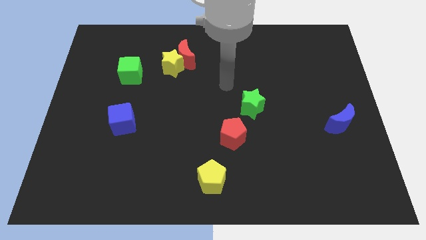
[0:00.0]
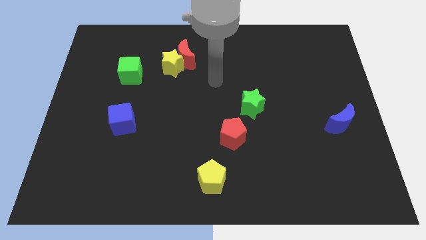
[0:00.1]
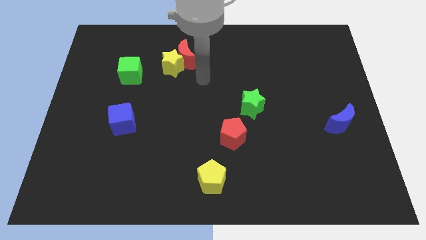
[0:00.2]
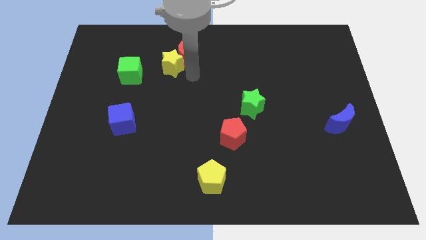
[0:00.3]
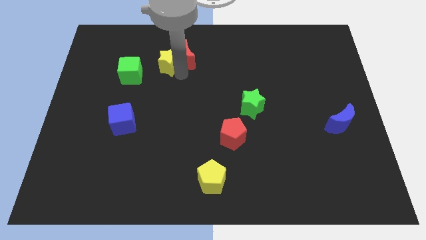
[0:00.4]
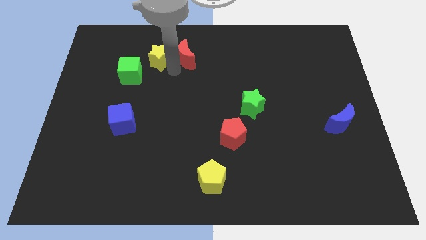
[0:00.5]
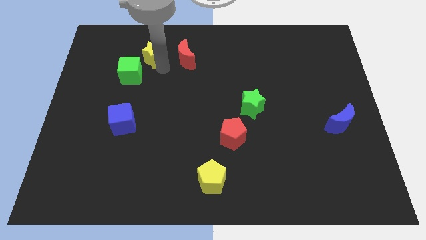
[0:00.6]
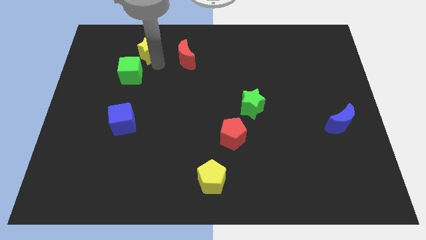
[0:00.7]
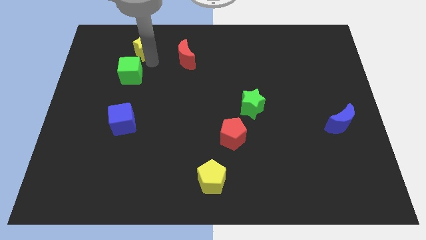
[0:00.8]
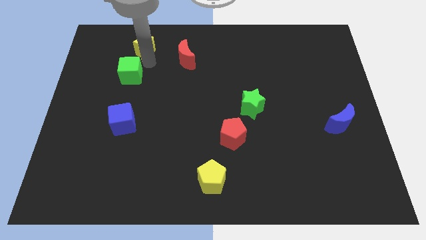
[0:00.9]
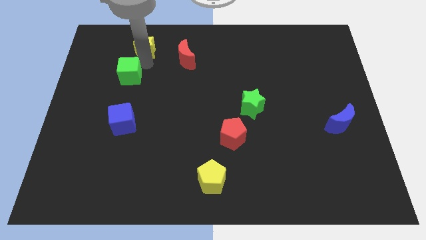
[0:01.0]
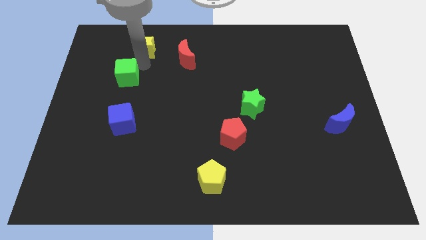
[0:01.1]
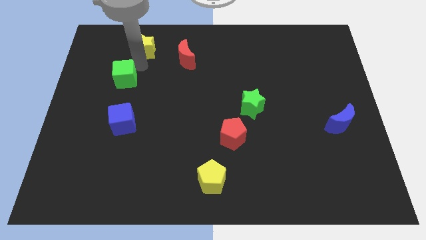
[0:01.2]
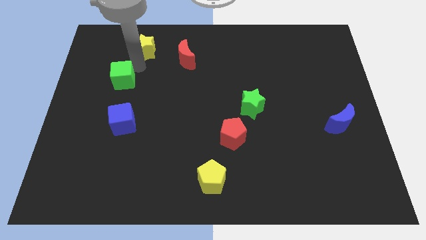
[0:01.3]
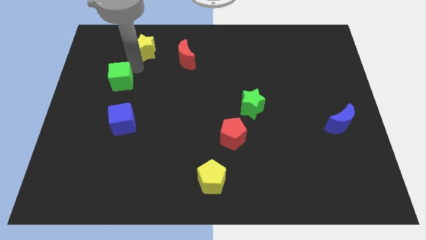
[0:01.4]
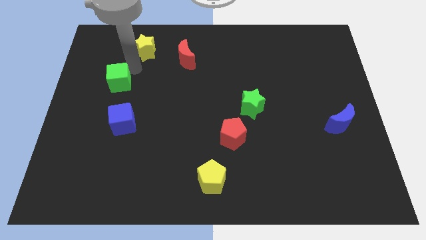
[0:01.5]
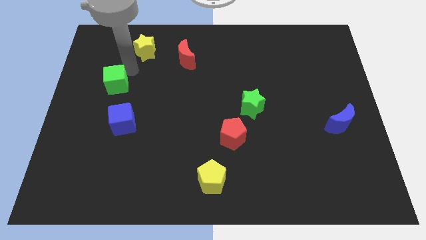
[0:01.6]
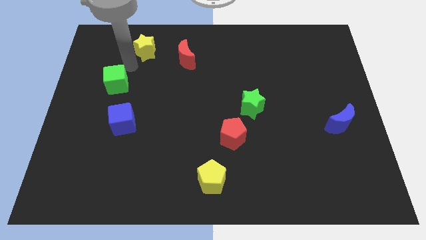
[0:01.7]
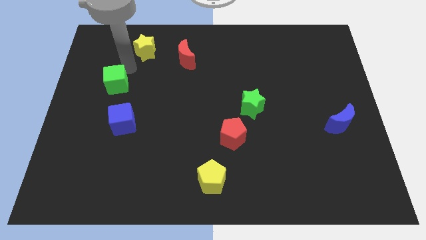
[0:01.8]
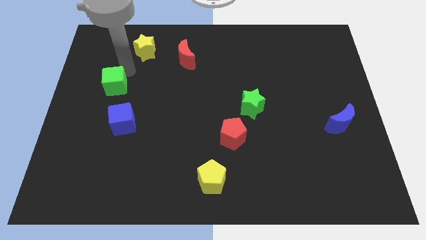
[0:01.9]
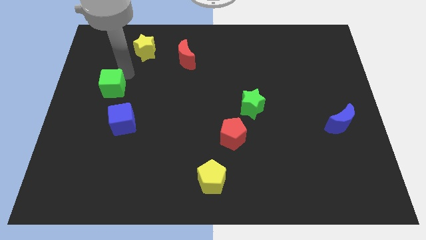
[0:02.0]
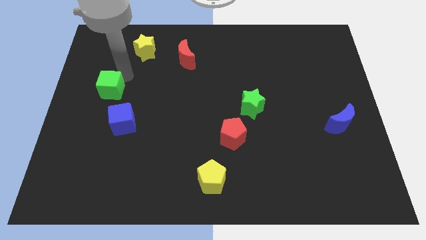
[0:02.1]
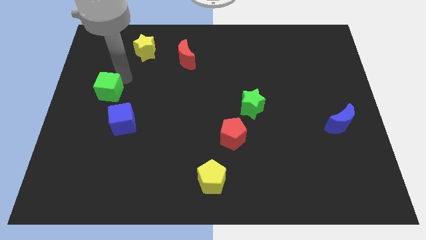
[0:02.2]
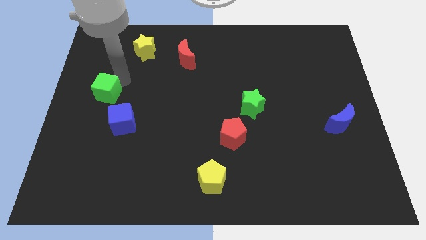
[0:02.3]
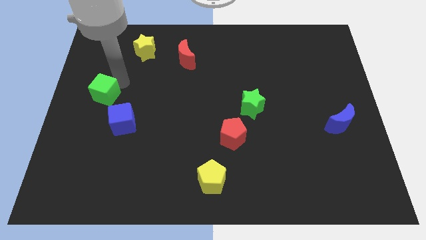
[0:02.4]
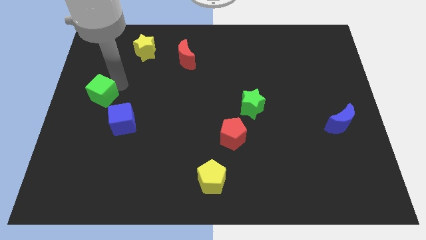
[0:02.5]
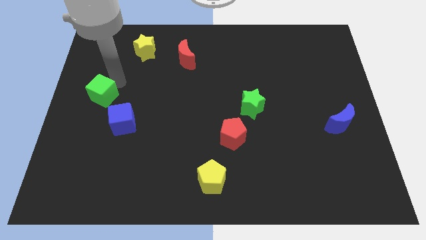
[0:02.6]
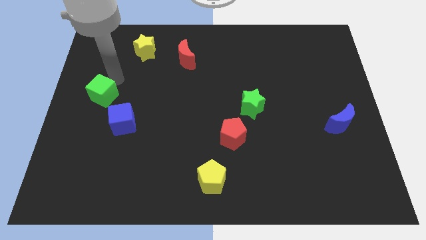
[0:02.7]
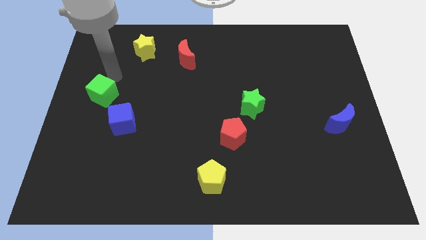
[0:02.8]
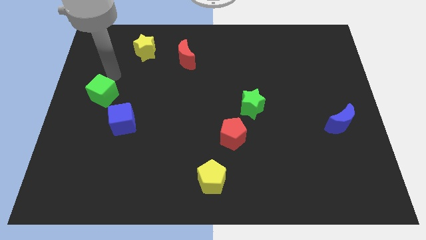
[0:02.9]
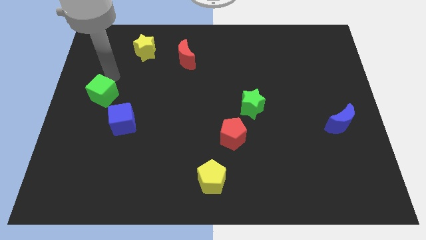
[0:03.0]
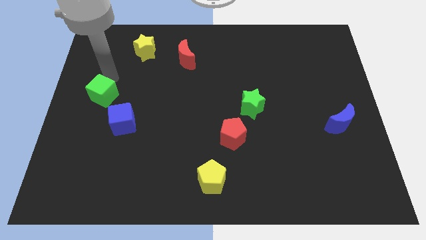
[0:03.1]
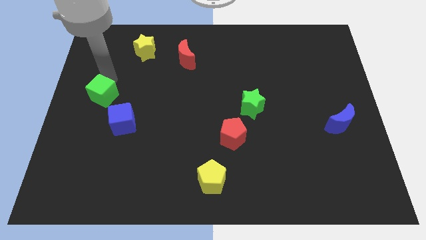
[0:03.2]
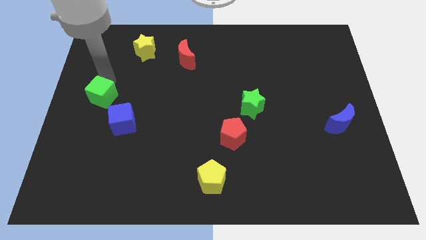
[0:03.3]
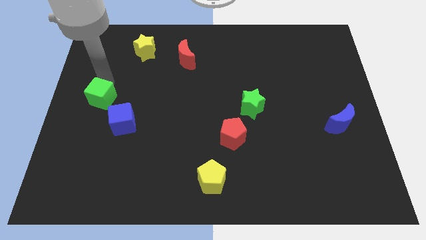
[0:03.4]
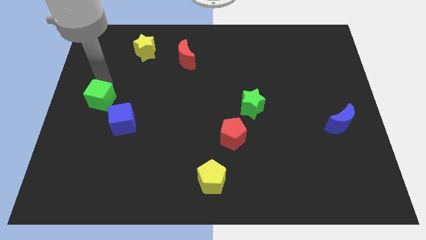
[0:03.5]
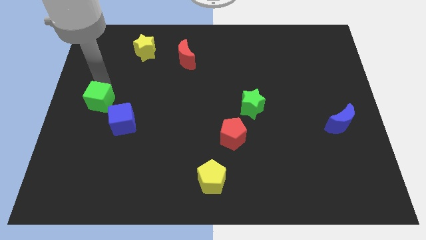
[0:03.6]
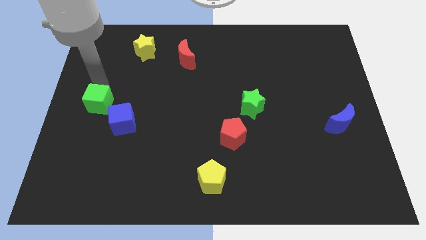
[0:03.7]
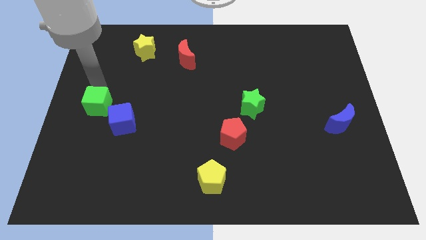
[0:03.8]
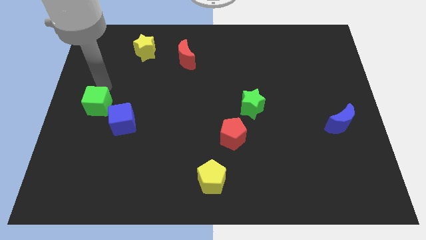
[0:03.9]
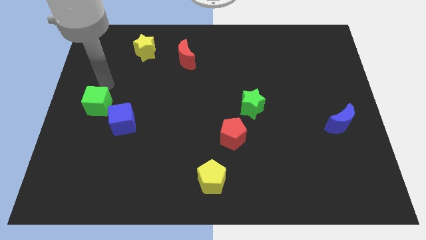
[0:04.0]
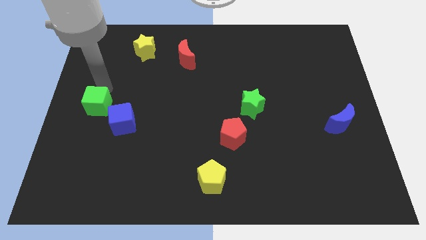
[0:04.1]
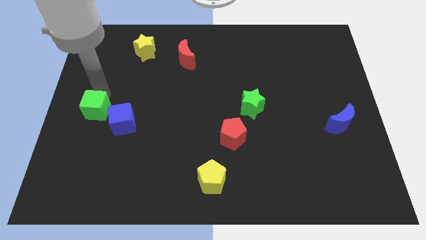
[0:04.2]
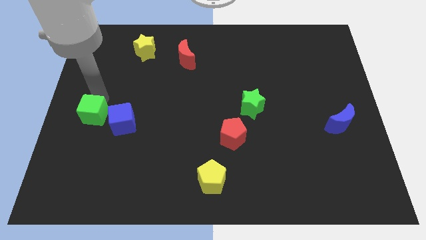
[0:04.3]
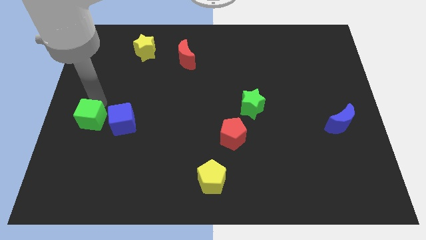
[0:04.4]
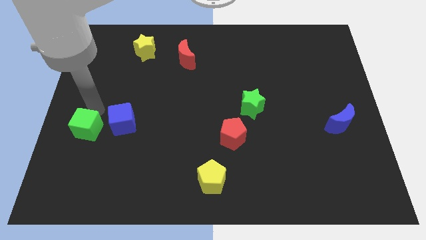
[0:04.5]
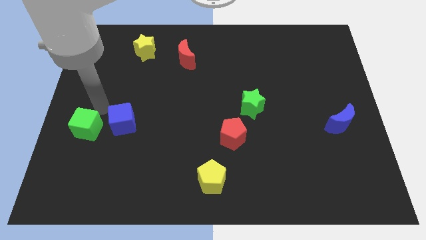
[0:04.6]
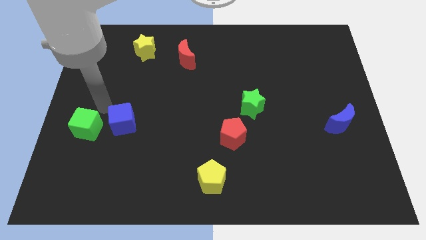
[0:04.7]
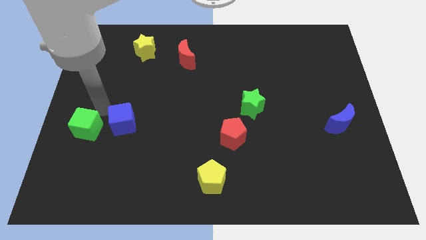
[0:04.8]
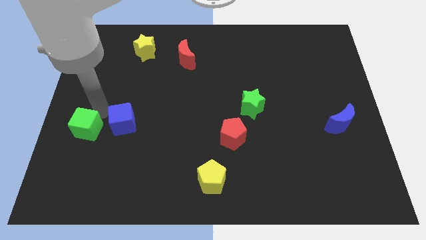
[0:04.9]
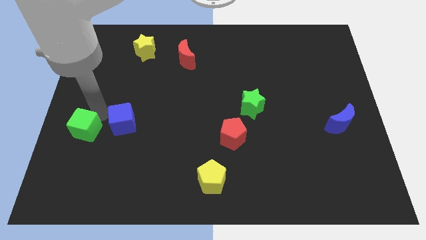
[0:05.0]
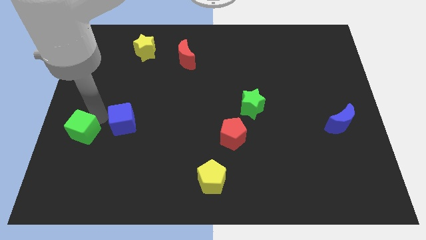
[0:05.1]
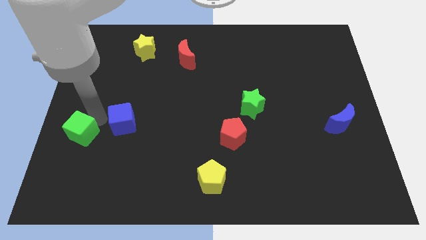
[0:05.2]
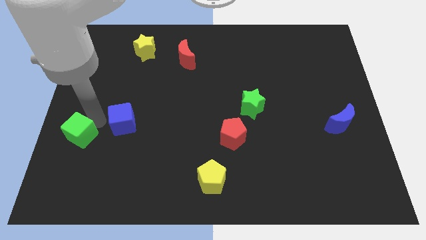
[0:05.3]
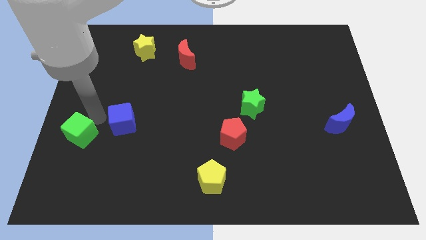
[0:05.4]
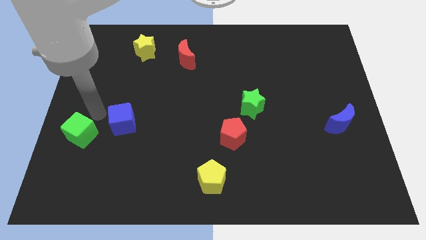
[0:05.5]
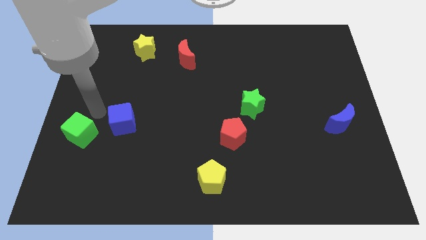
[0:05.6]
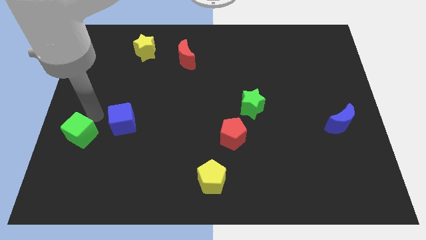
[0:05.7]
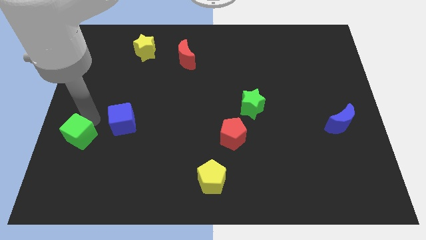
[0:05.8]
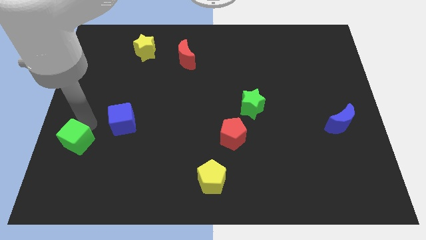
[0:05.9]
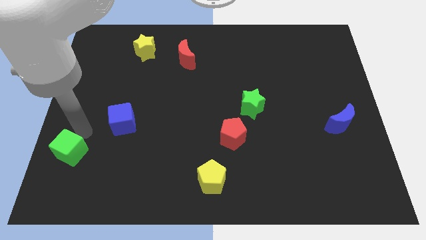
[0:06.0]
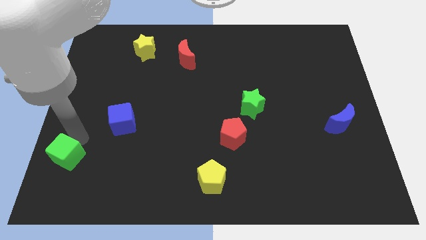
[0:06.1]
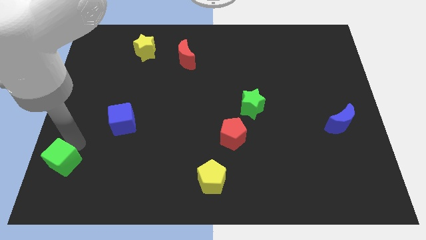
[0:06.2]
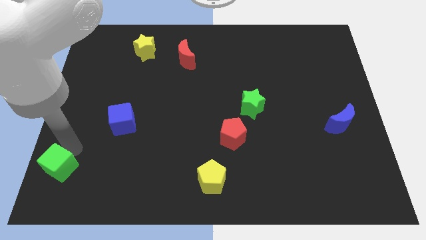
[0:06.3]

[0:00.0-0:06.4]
slide the green cube to the bottom left

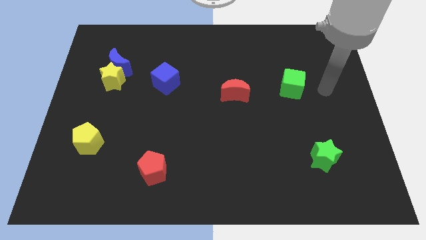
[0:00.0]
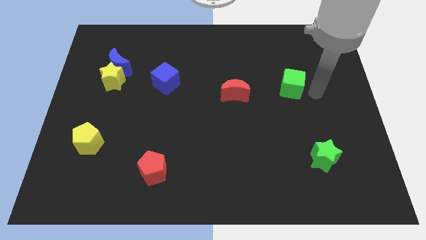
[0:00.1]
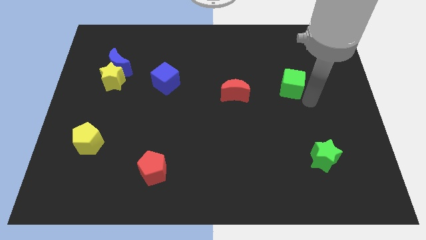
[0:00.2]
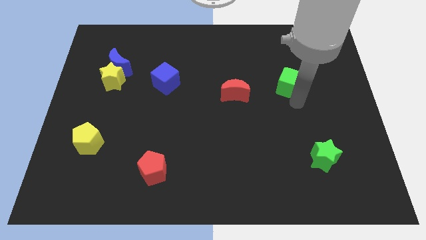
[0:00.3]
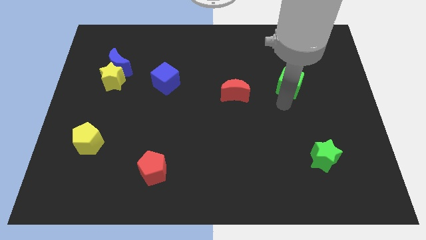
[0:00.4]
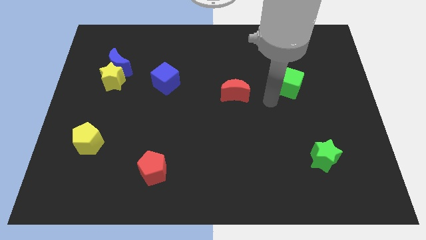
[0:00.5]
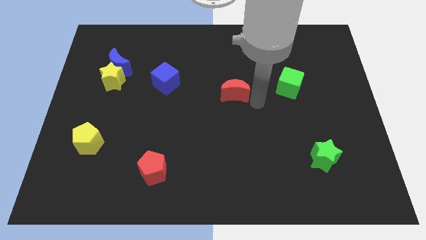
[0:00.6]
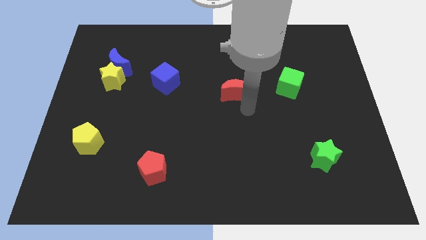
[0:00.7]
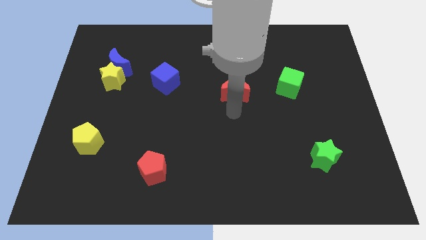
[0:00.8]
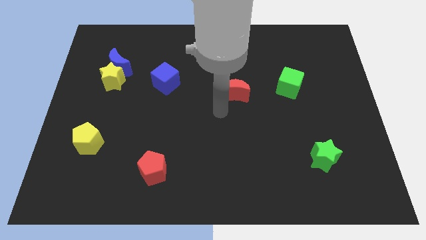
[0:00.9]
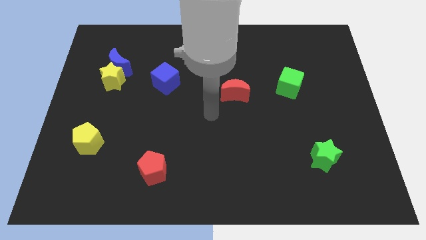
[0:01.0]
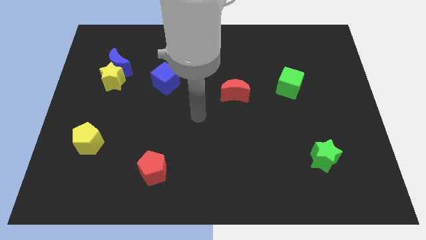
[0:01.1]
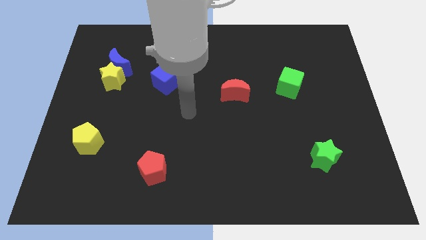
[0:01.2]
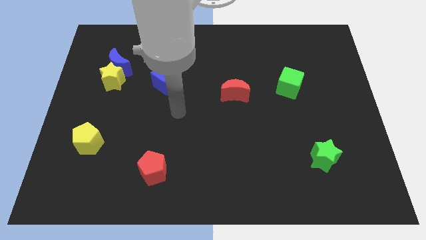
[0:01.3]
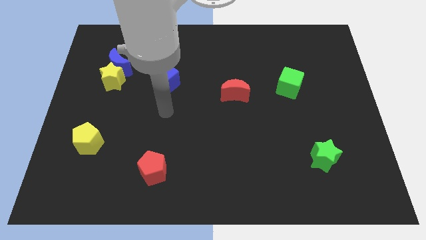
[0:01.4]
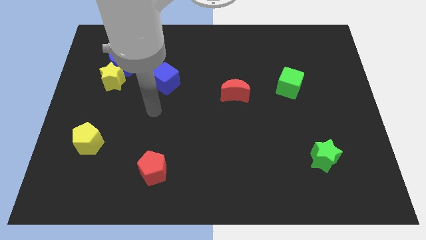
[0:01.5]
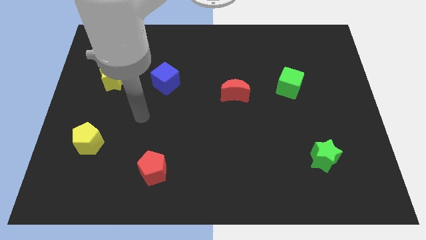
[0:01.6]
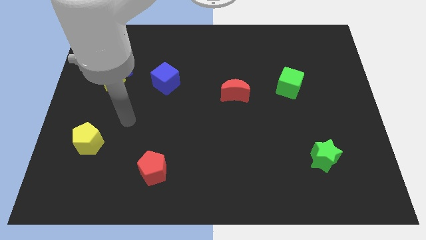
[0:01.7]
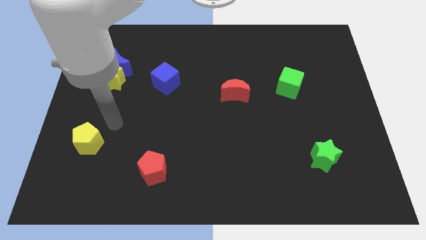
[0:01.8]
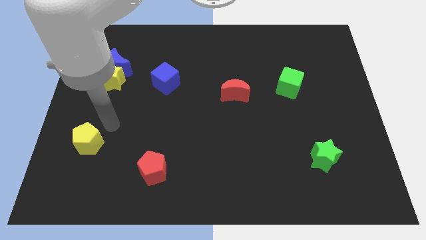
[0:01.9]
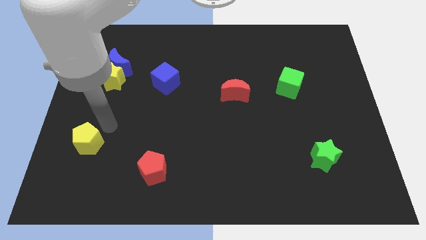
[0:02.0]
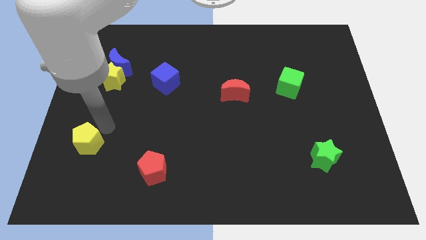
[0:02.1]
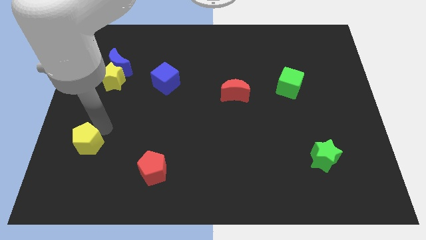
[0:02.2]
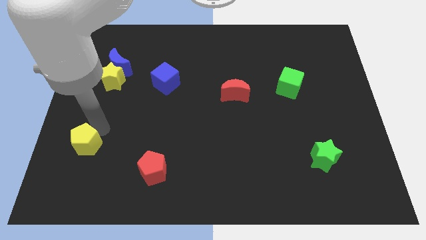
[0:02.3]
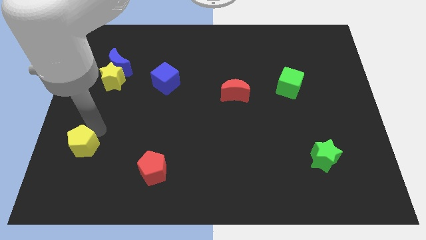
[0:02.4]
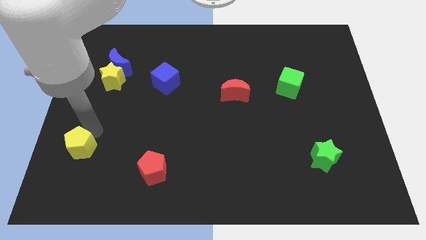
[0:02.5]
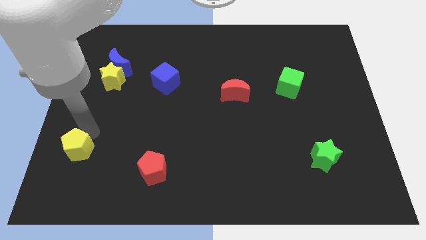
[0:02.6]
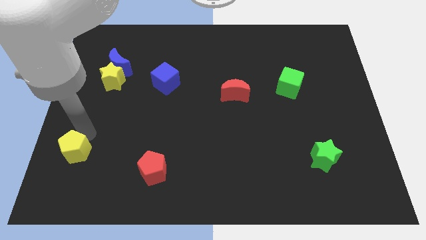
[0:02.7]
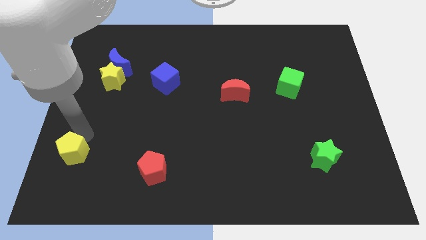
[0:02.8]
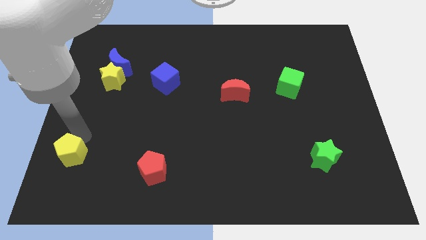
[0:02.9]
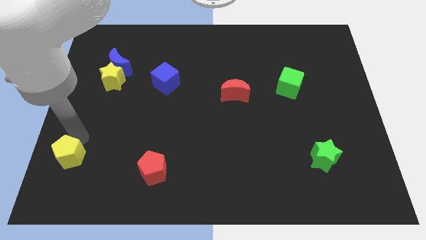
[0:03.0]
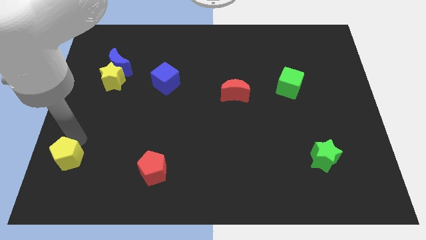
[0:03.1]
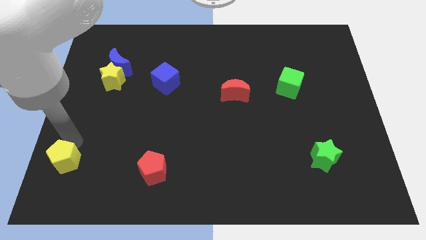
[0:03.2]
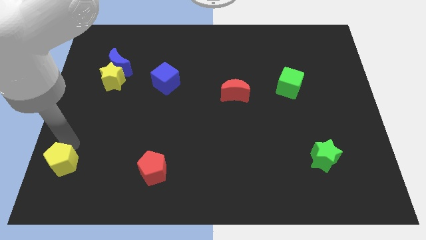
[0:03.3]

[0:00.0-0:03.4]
put the yellow pentagon to the lower left corner
